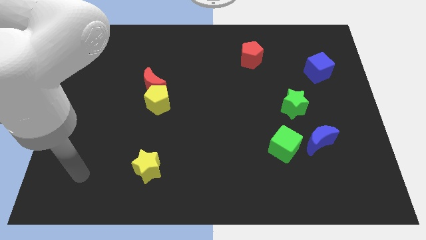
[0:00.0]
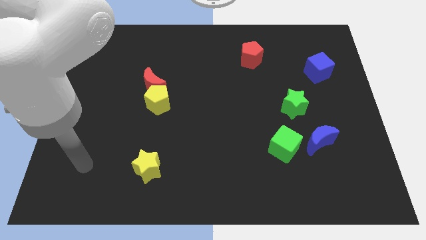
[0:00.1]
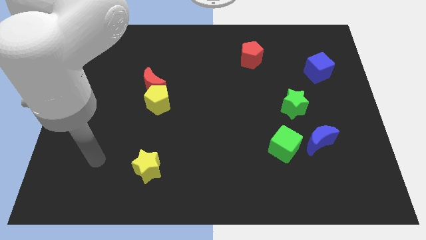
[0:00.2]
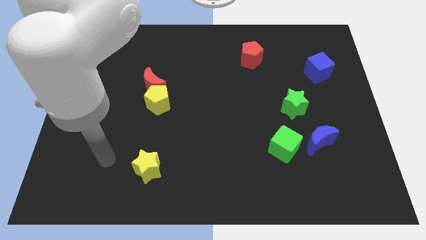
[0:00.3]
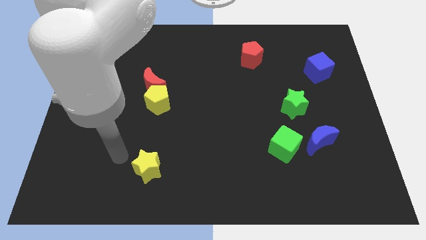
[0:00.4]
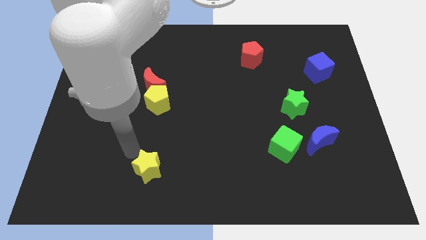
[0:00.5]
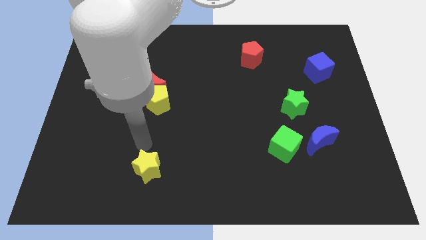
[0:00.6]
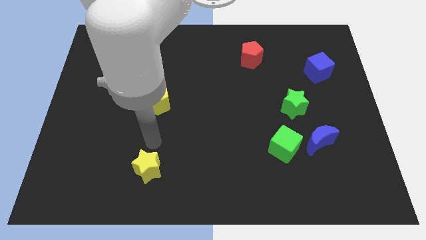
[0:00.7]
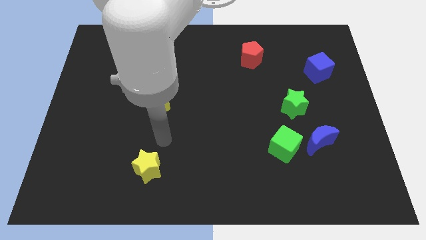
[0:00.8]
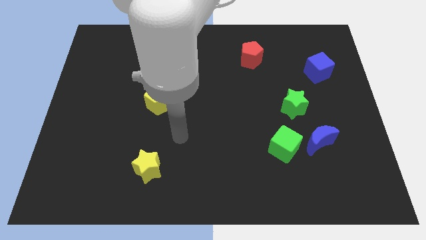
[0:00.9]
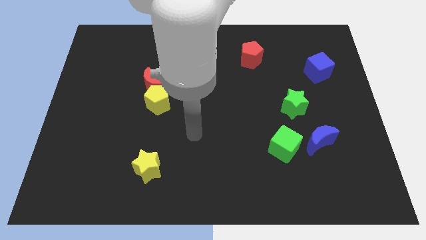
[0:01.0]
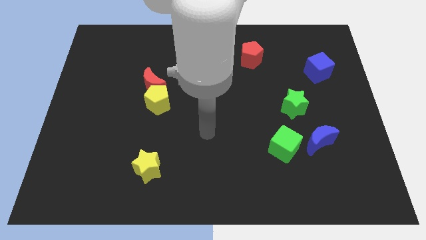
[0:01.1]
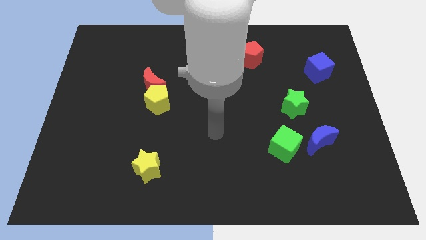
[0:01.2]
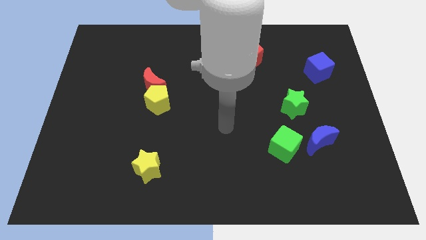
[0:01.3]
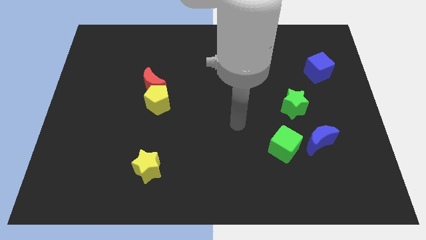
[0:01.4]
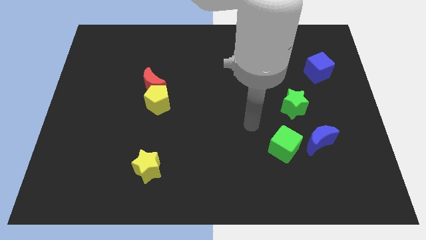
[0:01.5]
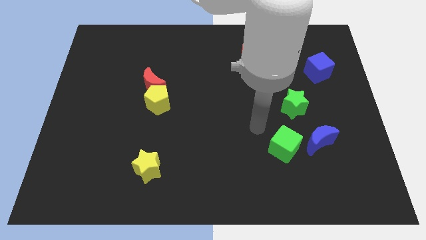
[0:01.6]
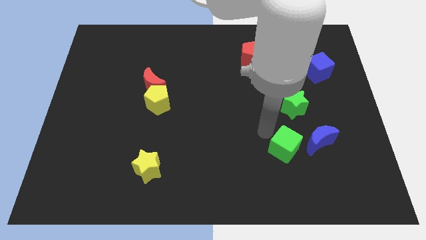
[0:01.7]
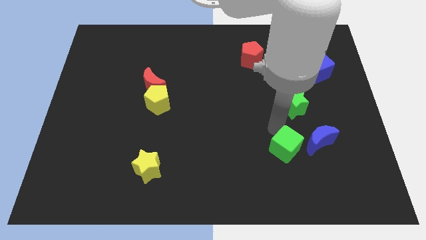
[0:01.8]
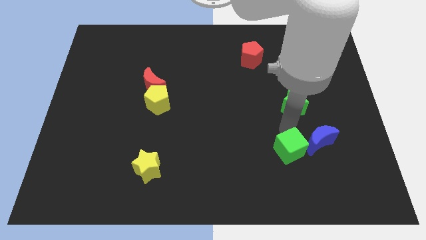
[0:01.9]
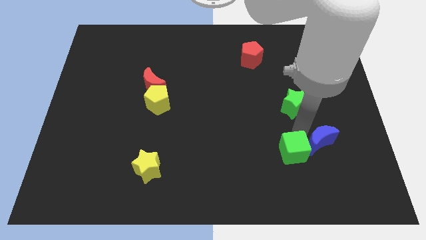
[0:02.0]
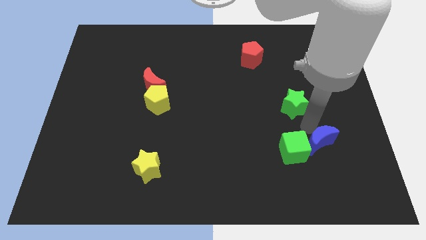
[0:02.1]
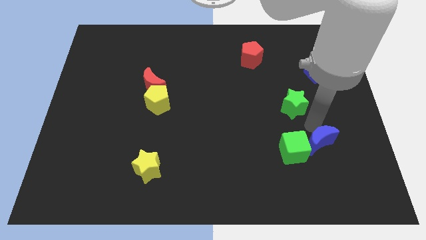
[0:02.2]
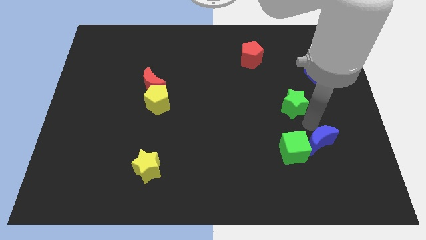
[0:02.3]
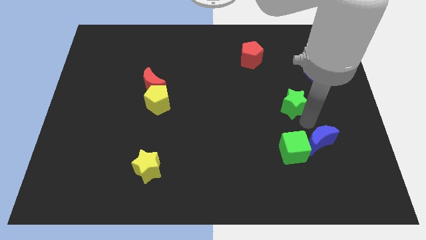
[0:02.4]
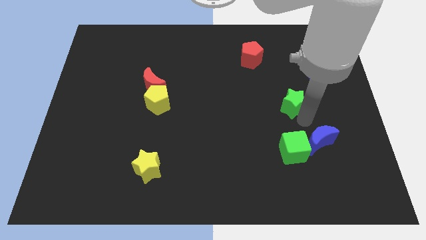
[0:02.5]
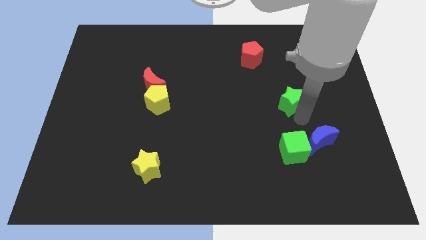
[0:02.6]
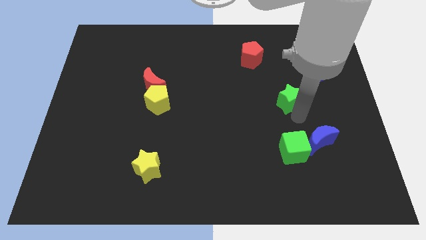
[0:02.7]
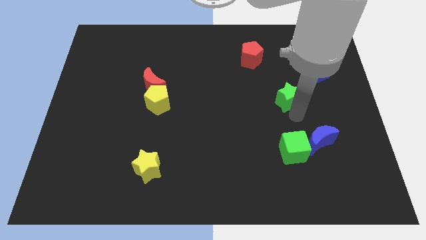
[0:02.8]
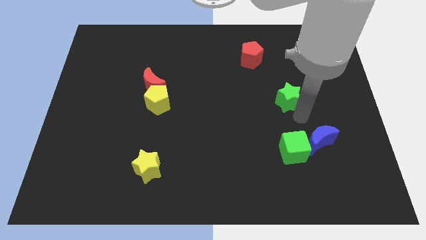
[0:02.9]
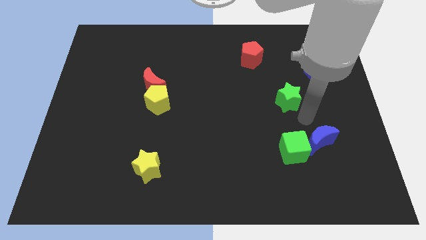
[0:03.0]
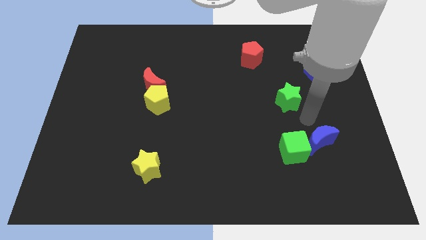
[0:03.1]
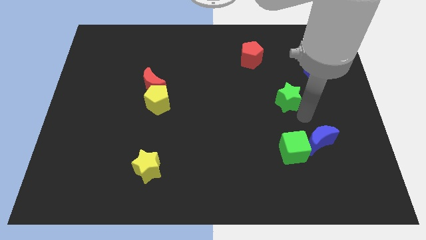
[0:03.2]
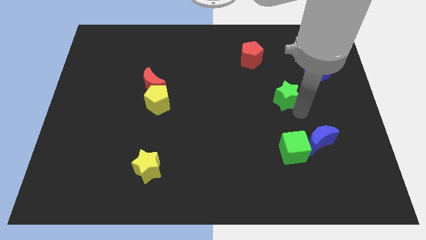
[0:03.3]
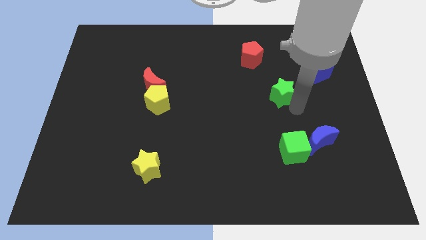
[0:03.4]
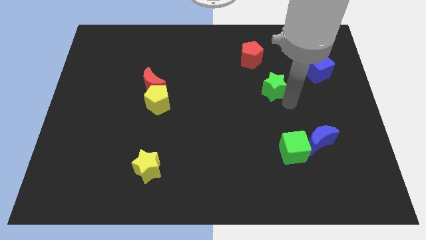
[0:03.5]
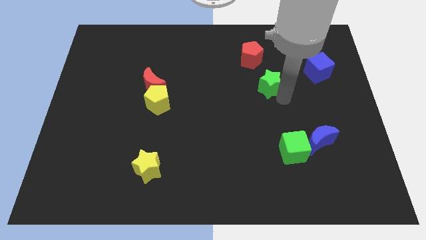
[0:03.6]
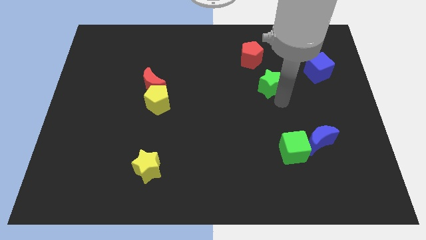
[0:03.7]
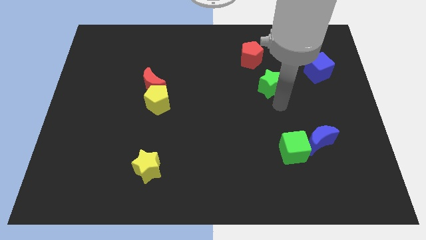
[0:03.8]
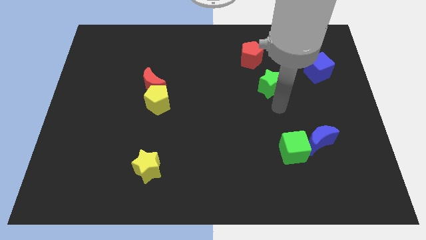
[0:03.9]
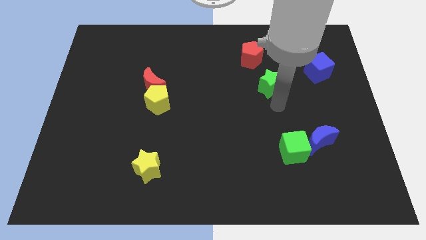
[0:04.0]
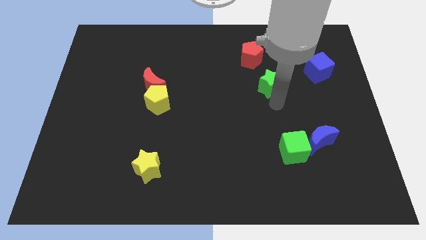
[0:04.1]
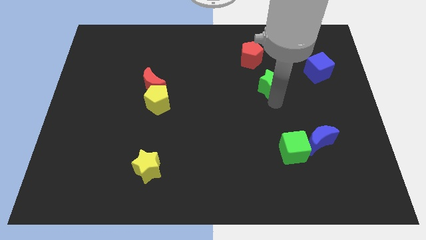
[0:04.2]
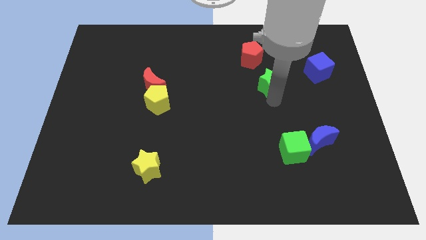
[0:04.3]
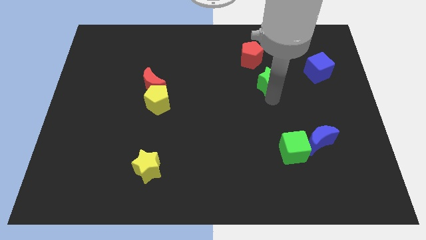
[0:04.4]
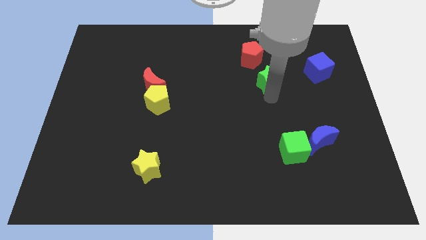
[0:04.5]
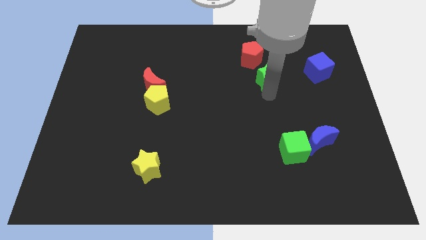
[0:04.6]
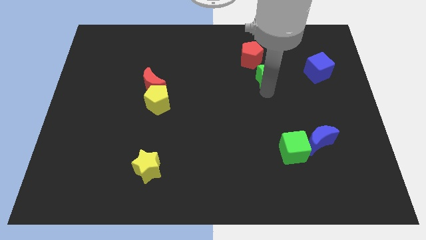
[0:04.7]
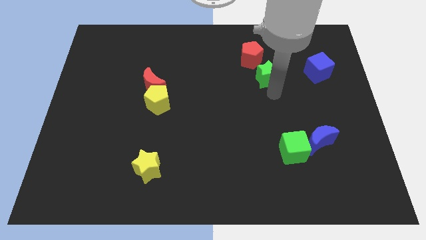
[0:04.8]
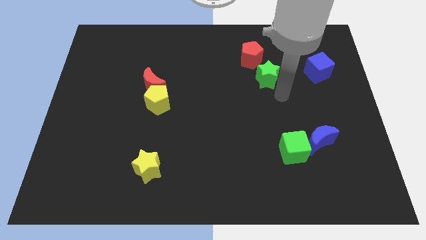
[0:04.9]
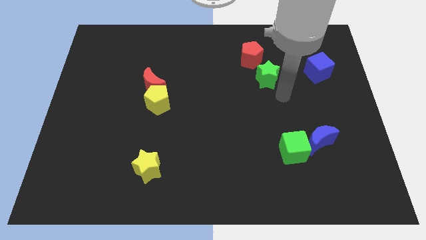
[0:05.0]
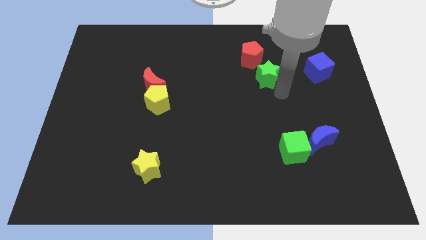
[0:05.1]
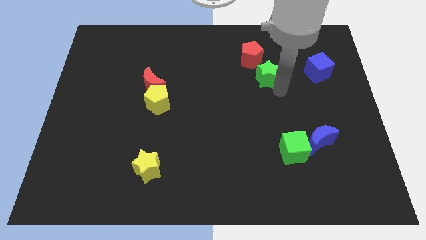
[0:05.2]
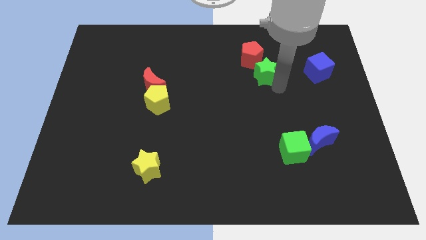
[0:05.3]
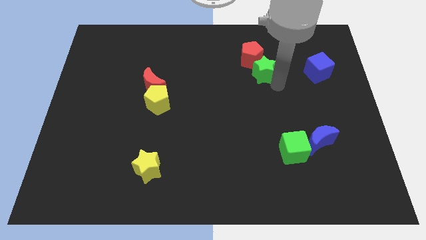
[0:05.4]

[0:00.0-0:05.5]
put the green star to the red pentagon
